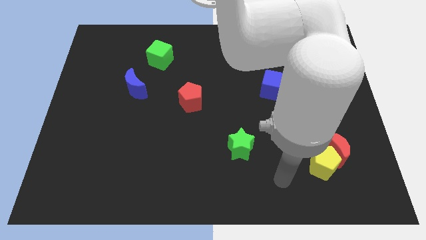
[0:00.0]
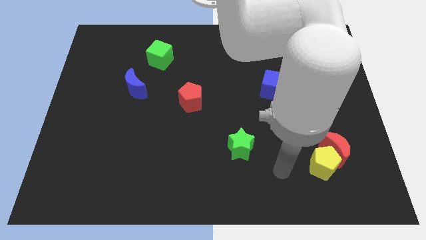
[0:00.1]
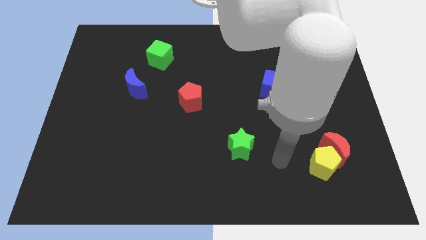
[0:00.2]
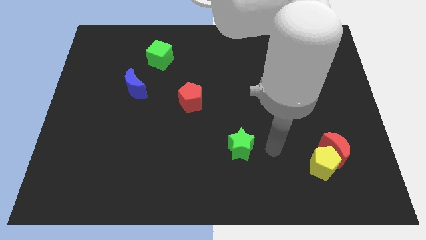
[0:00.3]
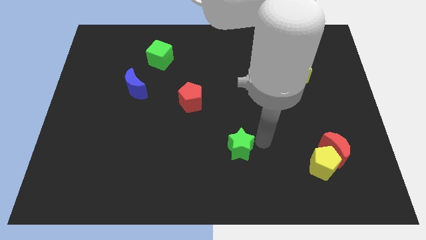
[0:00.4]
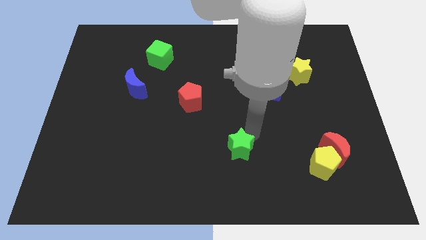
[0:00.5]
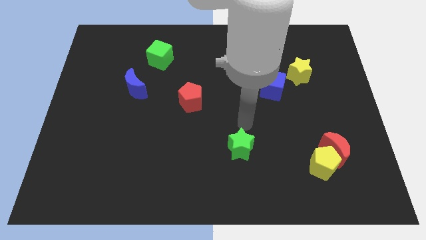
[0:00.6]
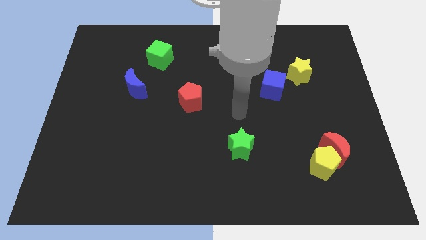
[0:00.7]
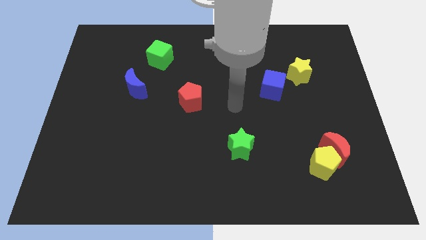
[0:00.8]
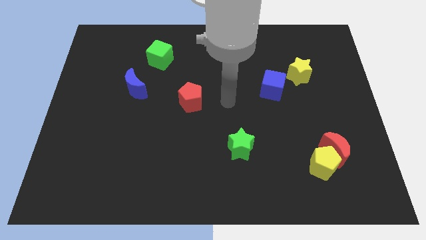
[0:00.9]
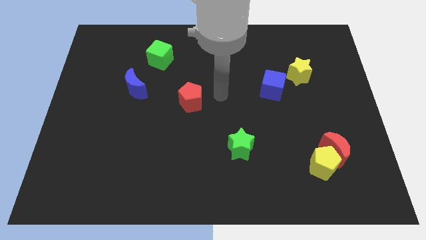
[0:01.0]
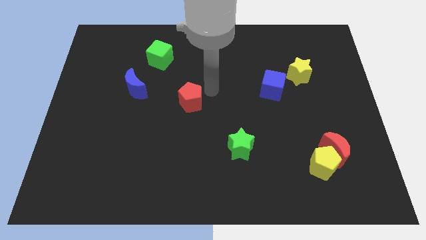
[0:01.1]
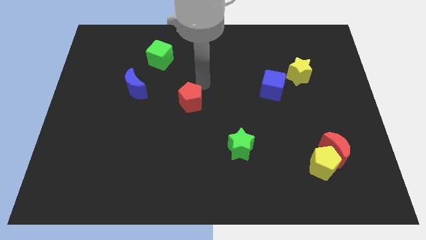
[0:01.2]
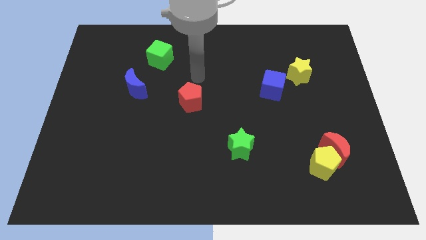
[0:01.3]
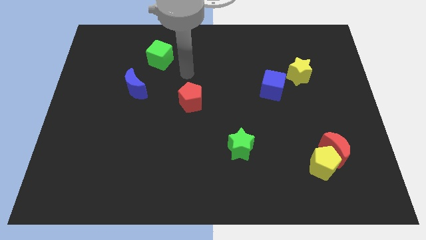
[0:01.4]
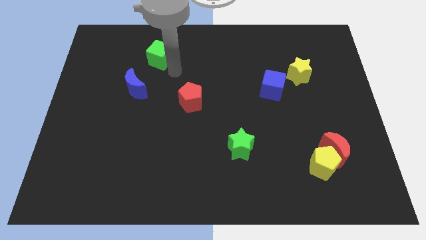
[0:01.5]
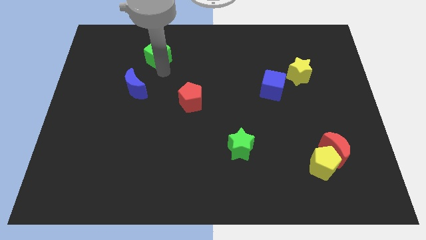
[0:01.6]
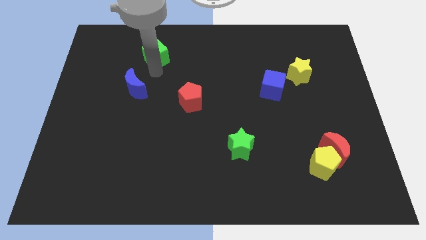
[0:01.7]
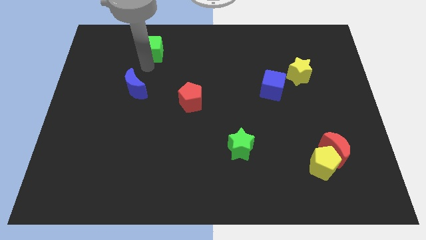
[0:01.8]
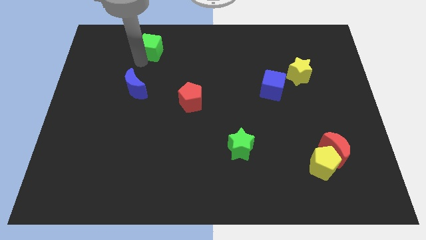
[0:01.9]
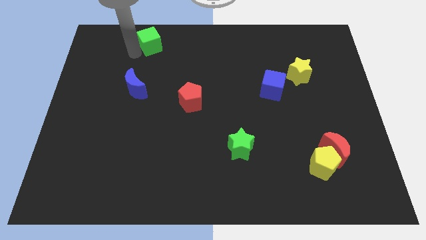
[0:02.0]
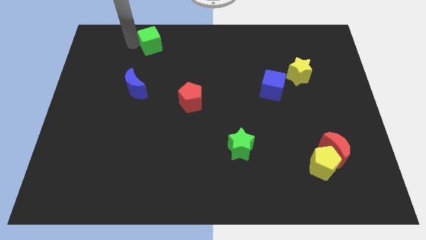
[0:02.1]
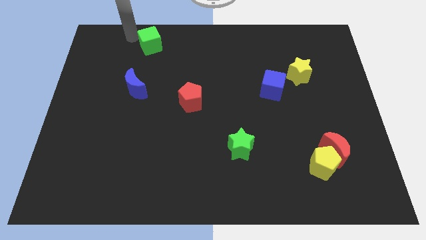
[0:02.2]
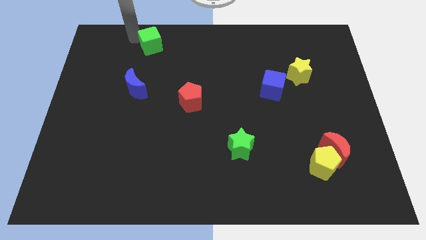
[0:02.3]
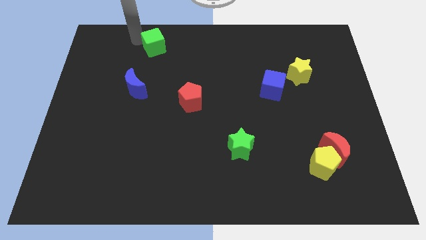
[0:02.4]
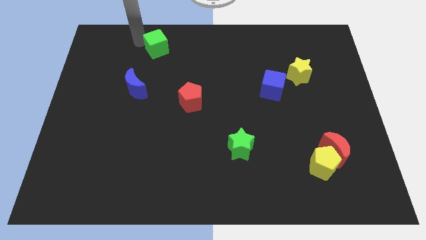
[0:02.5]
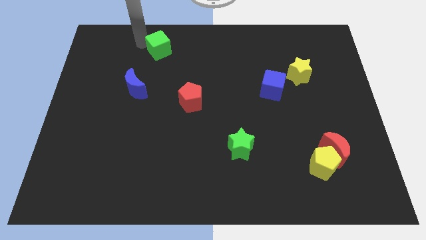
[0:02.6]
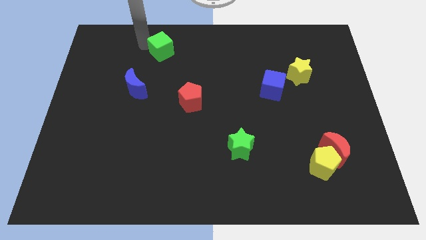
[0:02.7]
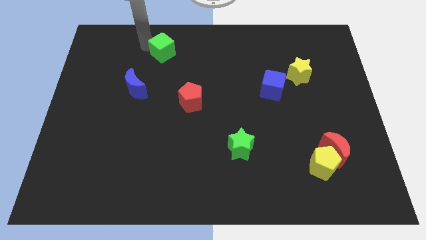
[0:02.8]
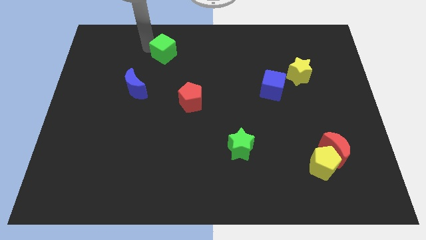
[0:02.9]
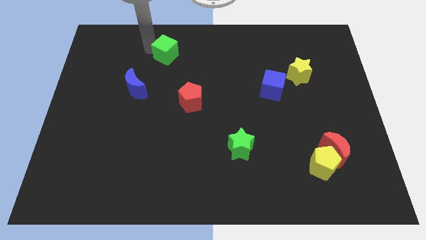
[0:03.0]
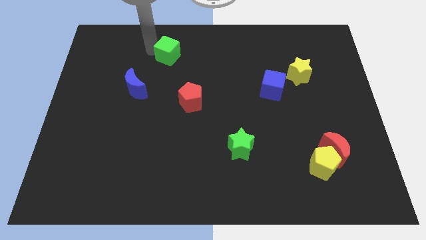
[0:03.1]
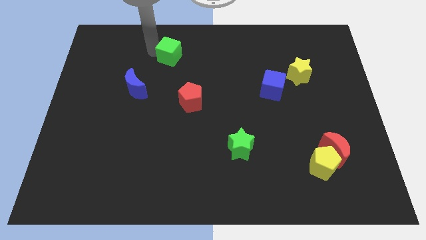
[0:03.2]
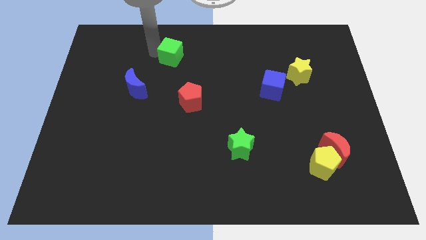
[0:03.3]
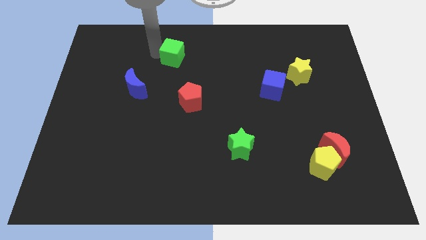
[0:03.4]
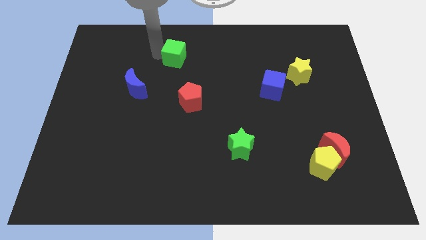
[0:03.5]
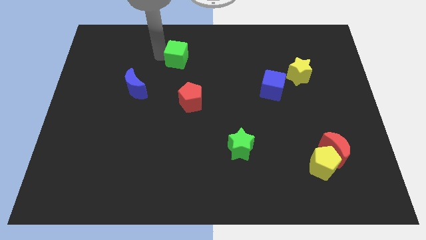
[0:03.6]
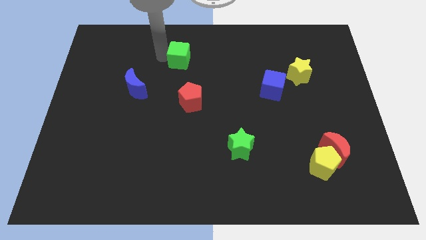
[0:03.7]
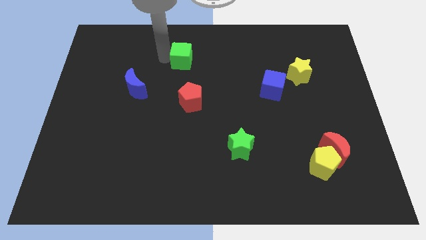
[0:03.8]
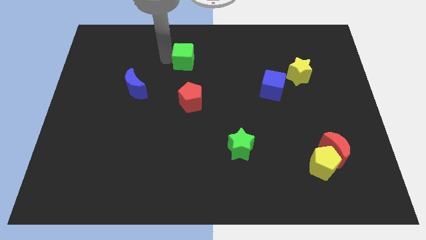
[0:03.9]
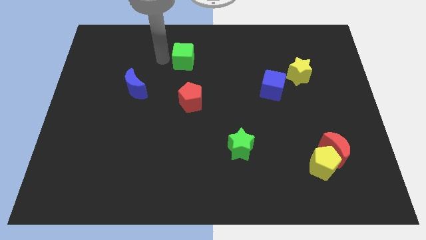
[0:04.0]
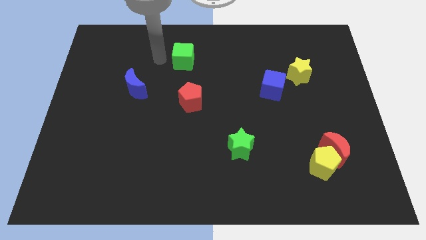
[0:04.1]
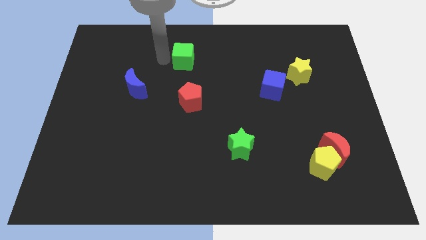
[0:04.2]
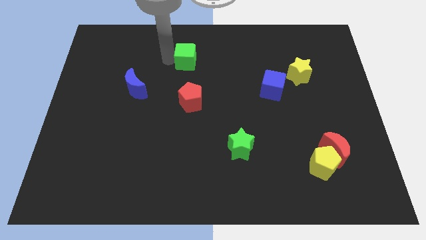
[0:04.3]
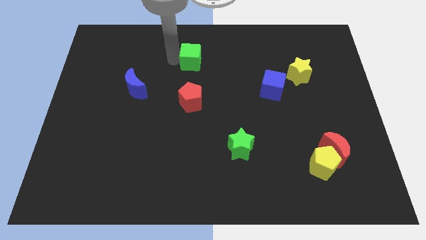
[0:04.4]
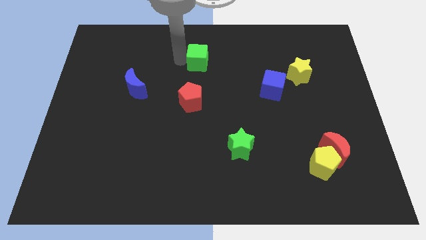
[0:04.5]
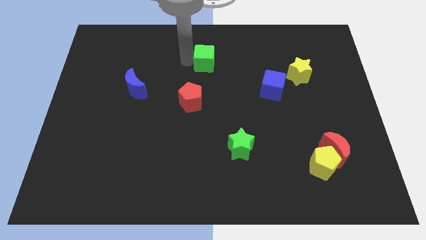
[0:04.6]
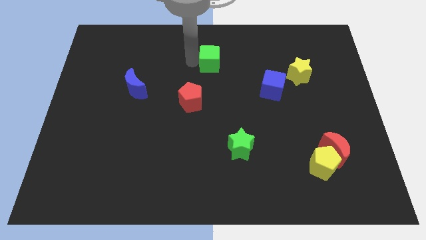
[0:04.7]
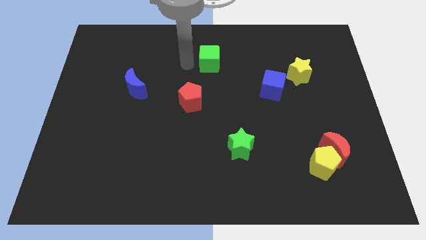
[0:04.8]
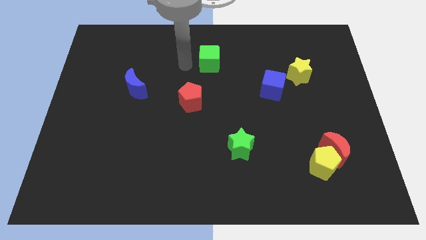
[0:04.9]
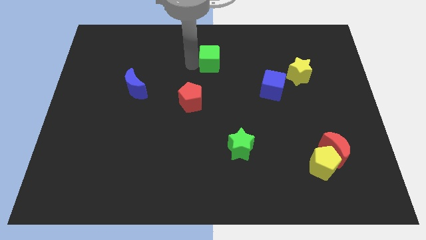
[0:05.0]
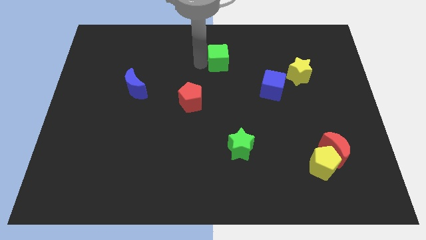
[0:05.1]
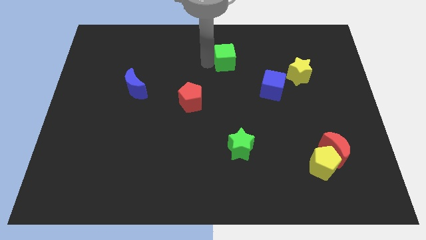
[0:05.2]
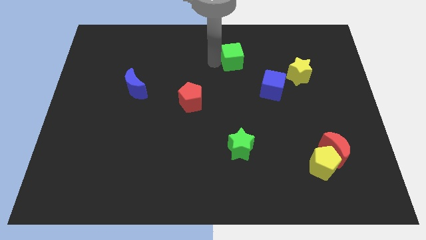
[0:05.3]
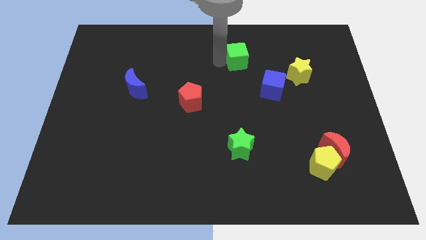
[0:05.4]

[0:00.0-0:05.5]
slide the green cube to the right

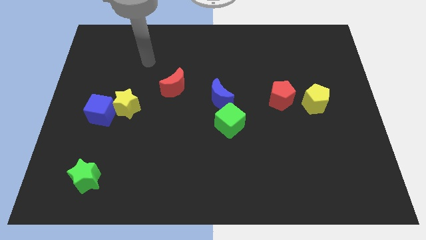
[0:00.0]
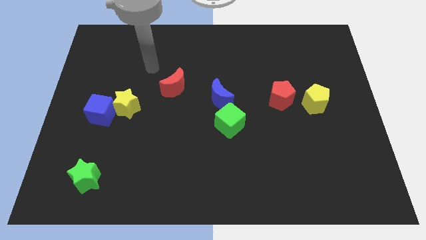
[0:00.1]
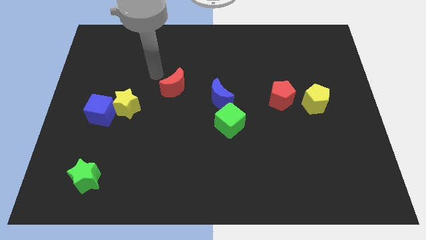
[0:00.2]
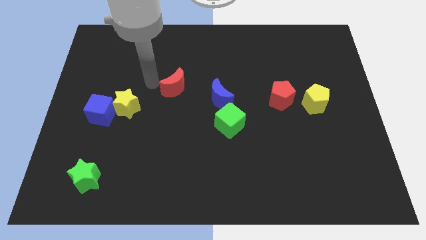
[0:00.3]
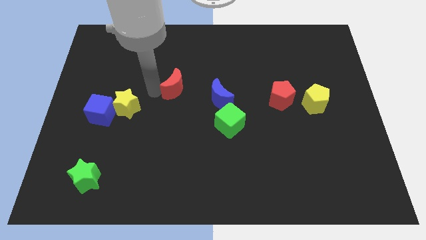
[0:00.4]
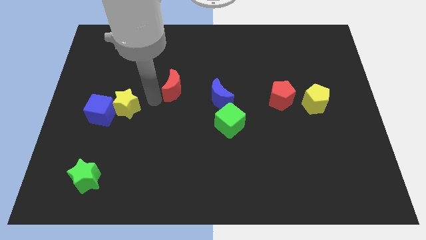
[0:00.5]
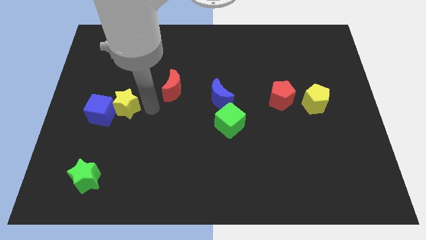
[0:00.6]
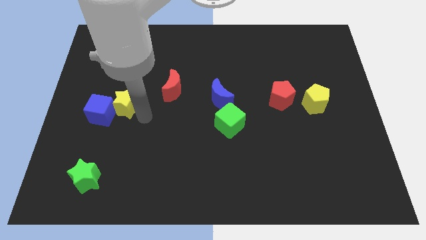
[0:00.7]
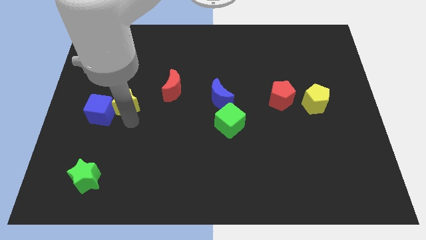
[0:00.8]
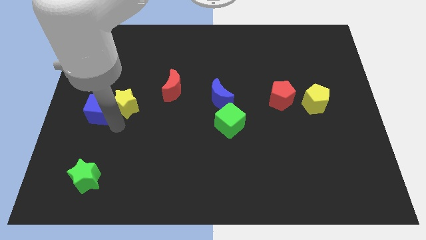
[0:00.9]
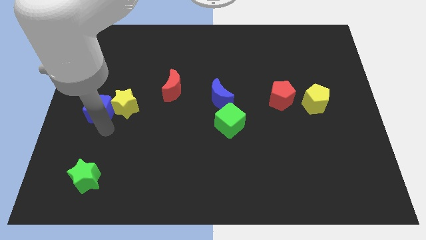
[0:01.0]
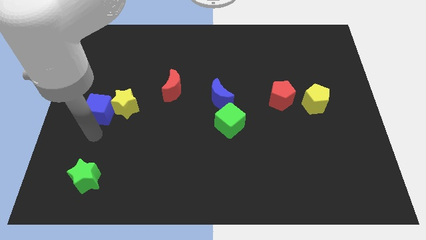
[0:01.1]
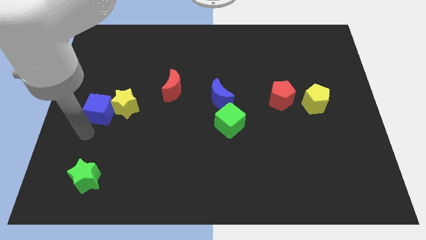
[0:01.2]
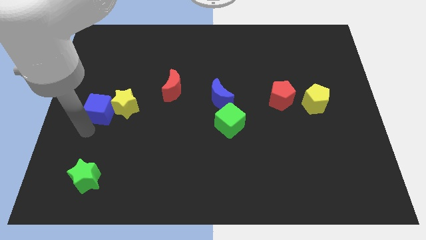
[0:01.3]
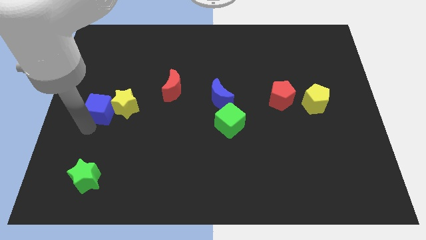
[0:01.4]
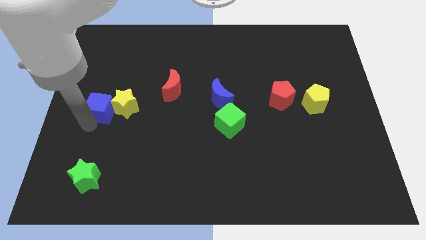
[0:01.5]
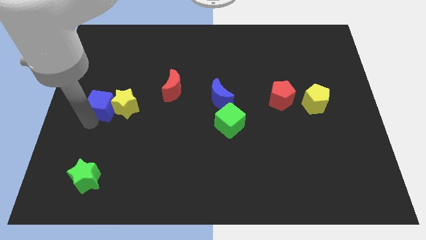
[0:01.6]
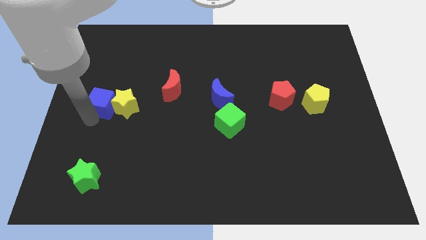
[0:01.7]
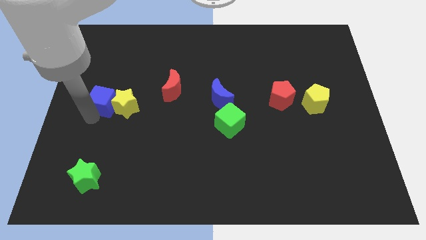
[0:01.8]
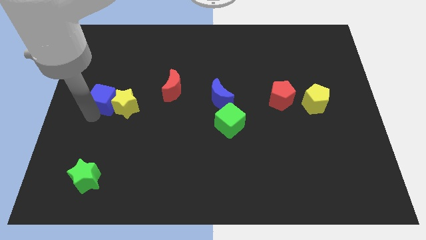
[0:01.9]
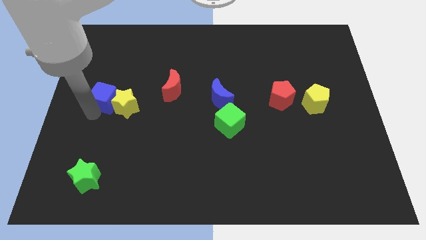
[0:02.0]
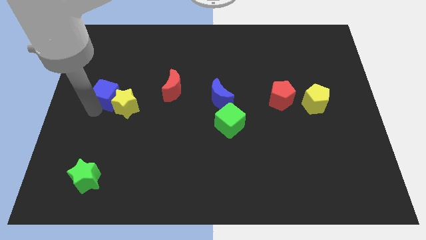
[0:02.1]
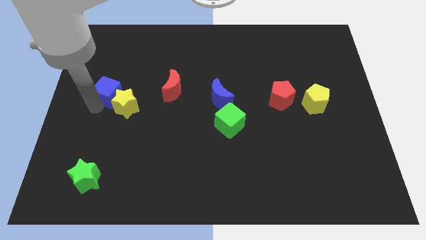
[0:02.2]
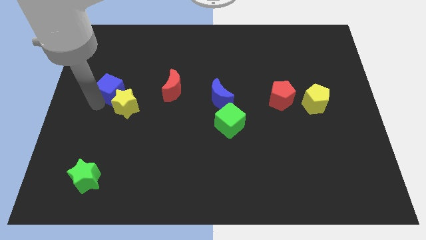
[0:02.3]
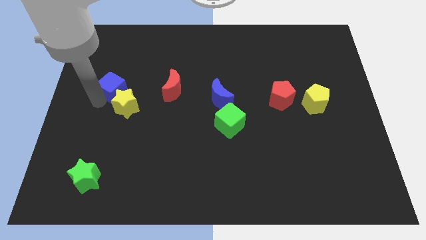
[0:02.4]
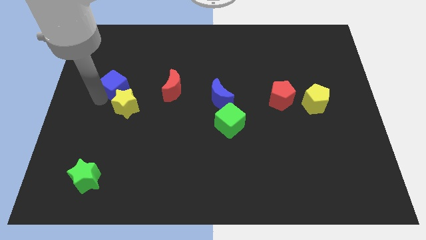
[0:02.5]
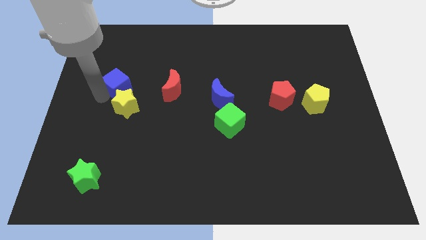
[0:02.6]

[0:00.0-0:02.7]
push the blue cube diagonally up and to the right a little bit
